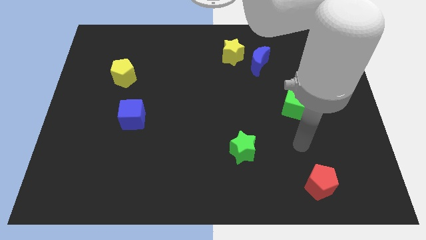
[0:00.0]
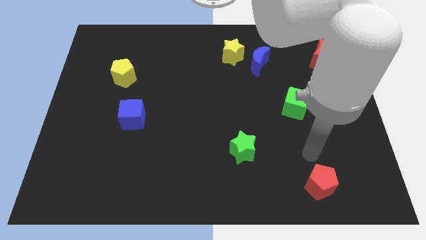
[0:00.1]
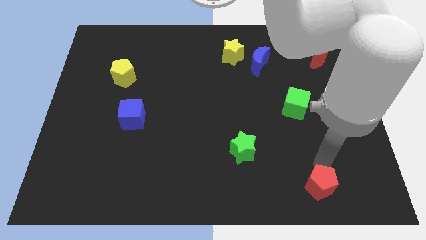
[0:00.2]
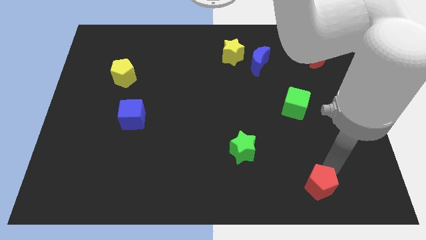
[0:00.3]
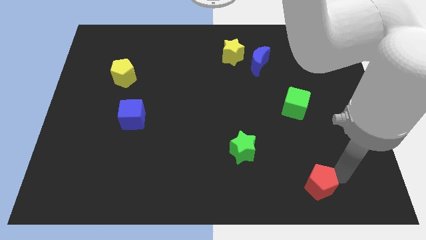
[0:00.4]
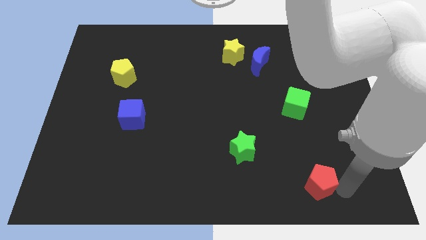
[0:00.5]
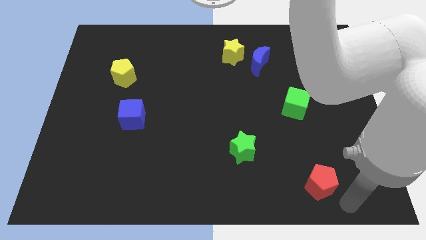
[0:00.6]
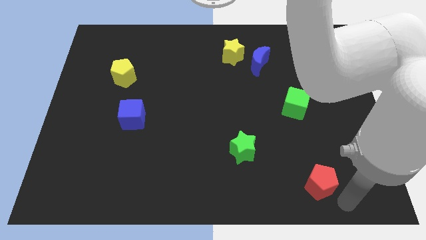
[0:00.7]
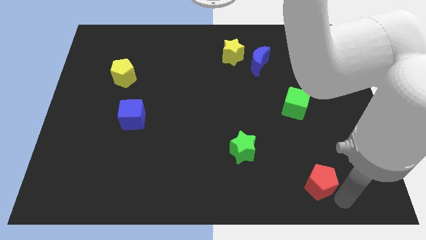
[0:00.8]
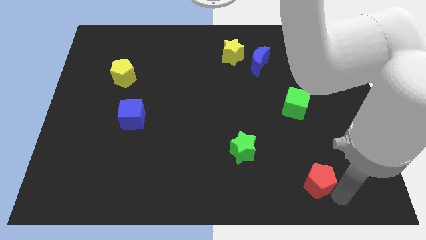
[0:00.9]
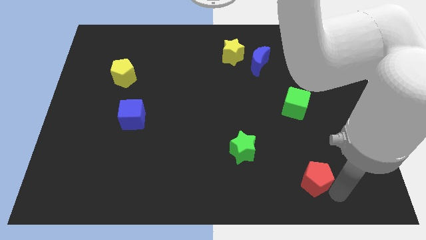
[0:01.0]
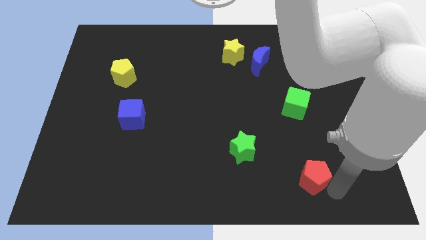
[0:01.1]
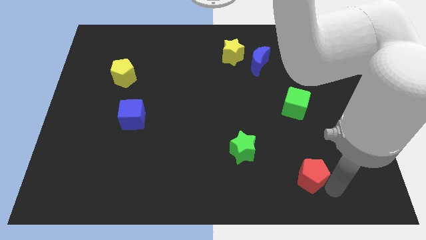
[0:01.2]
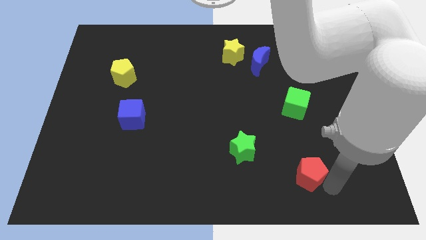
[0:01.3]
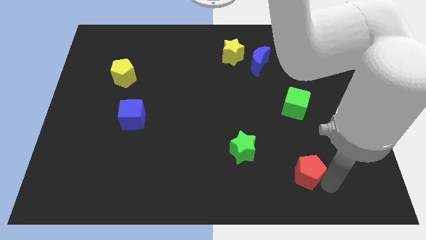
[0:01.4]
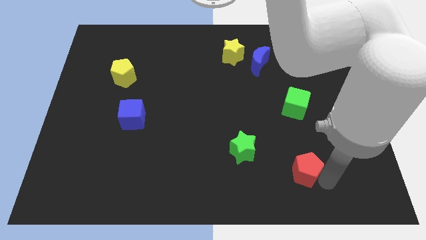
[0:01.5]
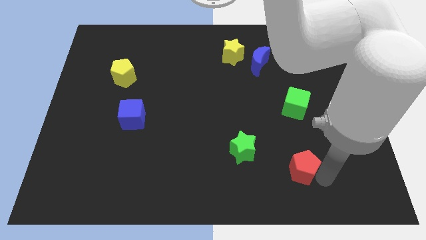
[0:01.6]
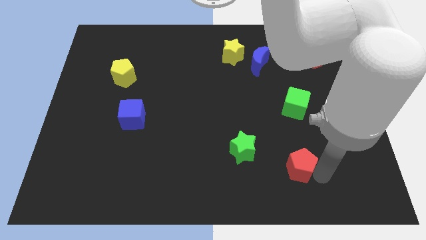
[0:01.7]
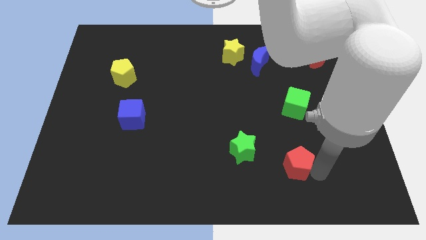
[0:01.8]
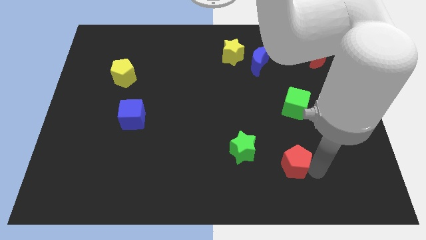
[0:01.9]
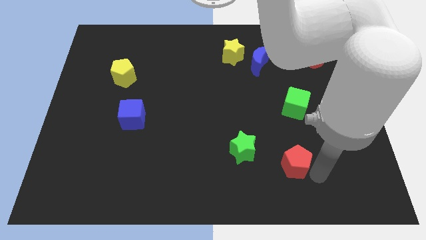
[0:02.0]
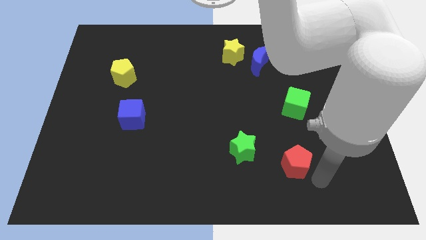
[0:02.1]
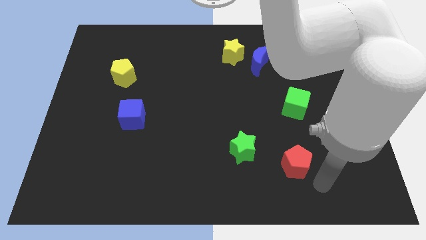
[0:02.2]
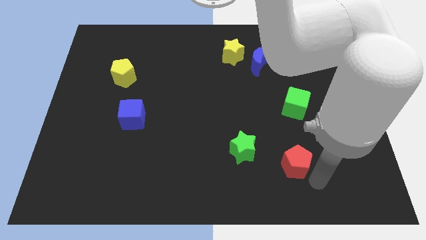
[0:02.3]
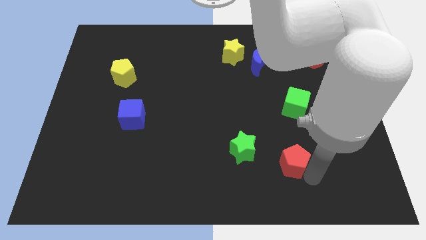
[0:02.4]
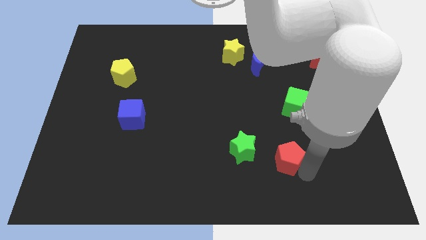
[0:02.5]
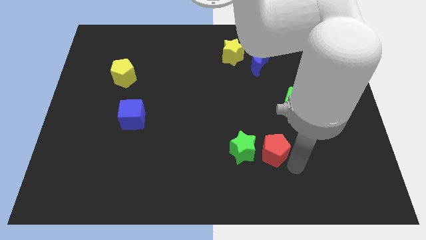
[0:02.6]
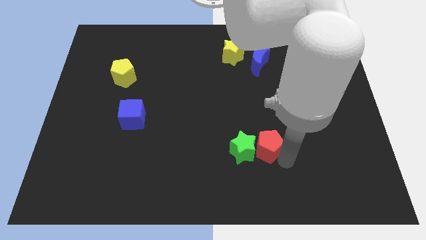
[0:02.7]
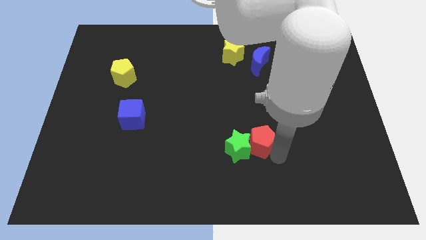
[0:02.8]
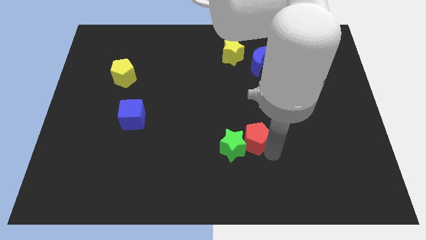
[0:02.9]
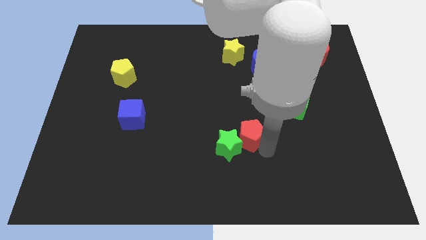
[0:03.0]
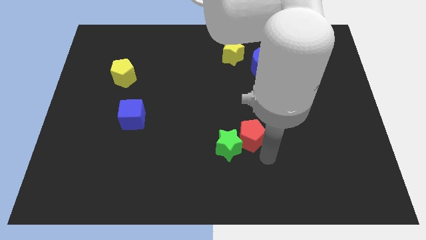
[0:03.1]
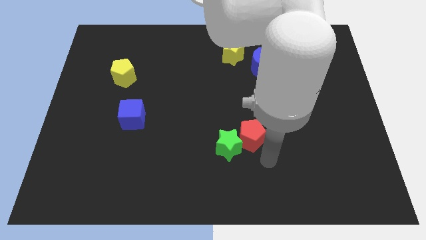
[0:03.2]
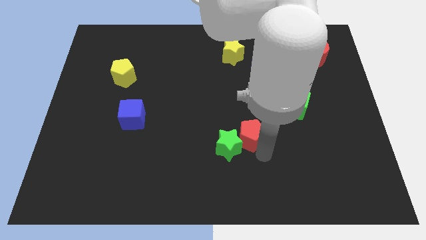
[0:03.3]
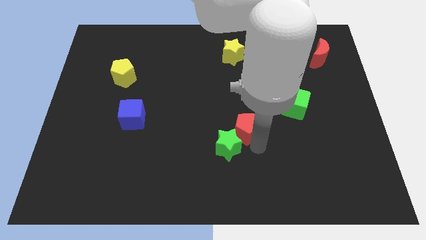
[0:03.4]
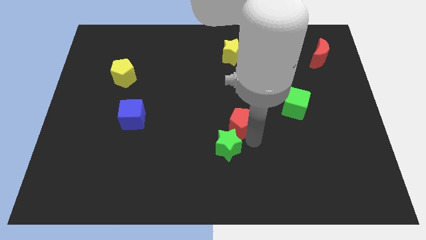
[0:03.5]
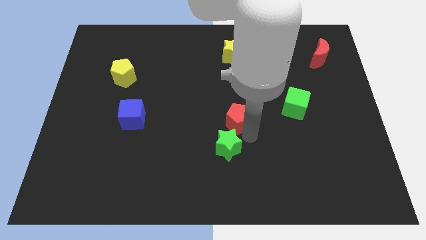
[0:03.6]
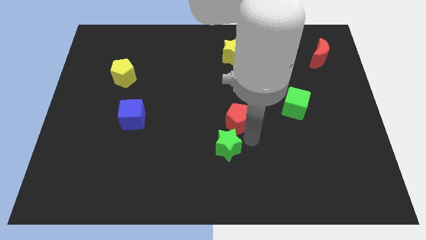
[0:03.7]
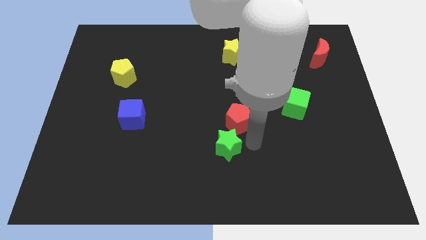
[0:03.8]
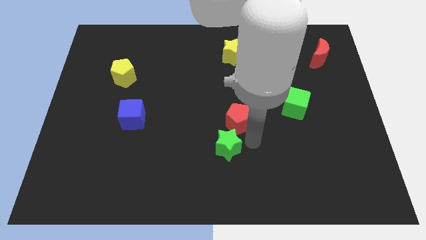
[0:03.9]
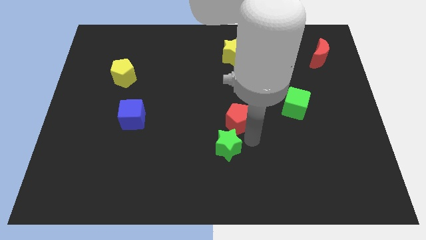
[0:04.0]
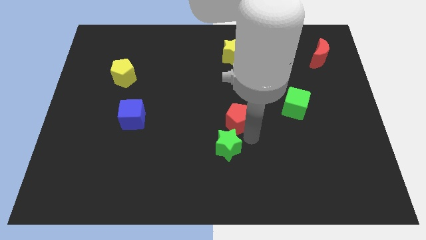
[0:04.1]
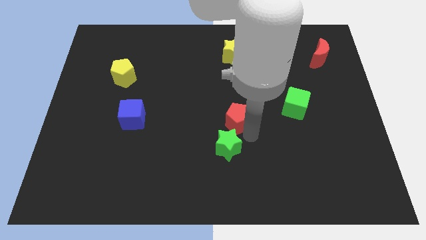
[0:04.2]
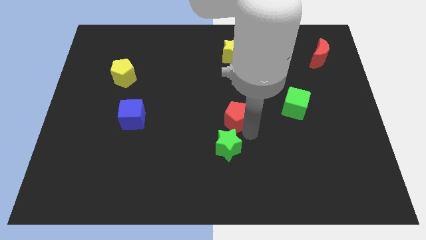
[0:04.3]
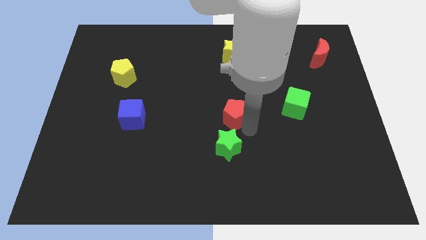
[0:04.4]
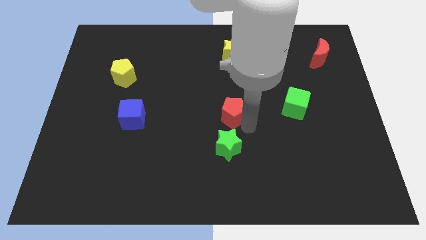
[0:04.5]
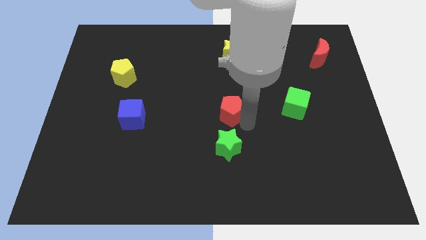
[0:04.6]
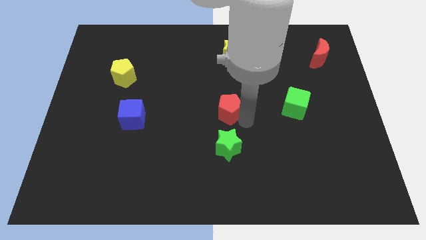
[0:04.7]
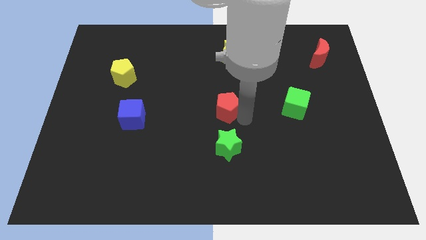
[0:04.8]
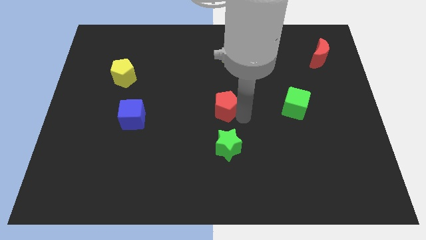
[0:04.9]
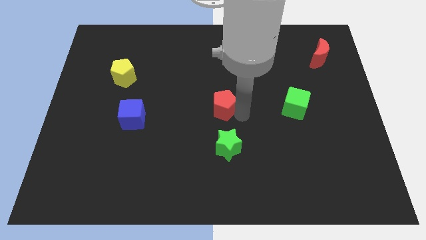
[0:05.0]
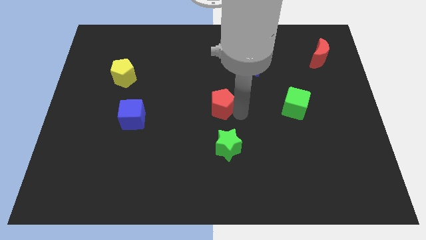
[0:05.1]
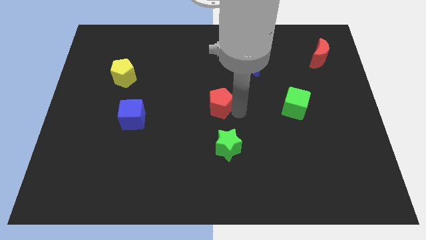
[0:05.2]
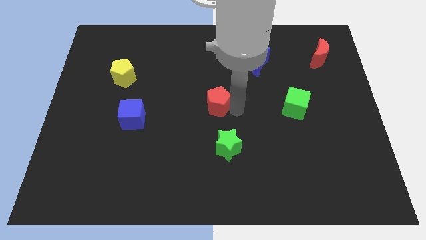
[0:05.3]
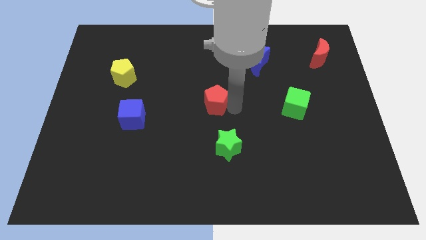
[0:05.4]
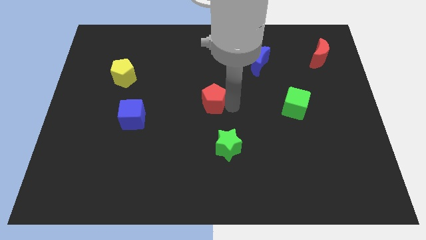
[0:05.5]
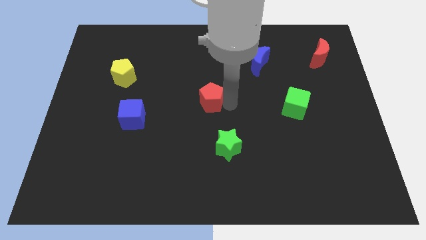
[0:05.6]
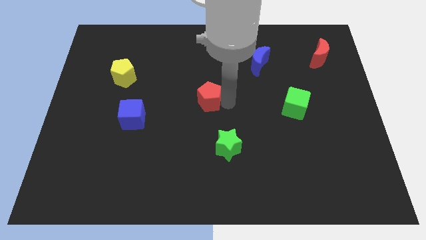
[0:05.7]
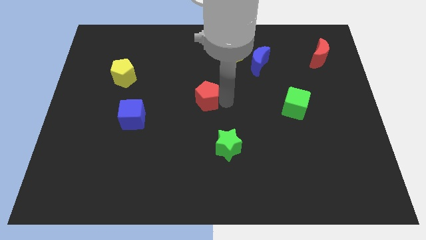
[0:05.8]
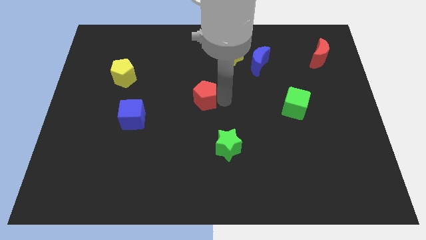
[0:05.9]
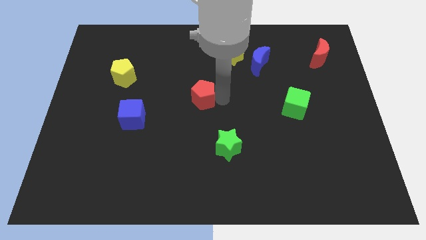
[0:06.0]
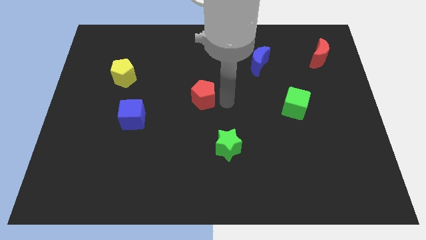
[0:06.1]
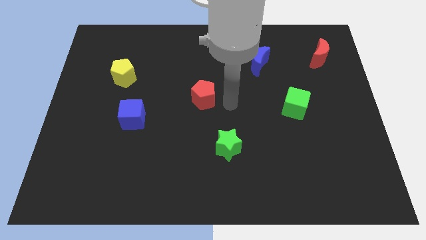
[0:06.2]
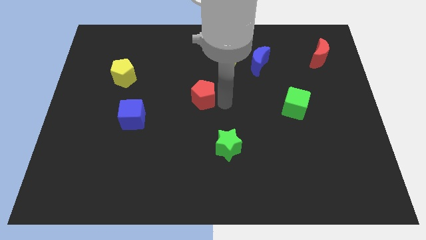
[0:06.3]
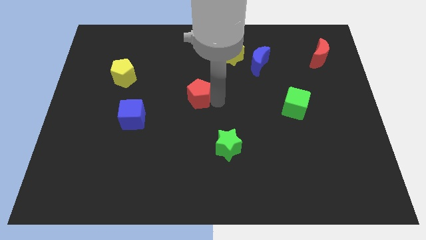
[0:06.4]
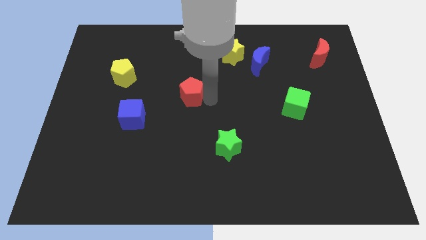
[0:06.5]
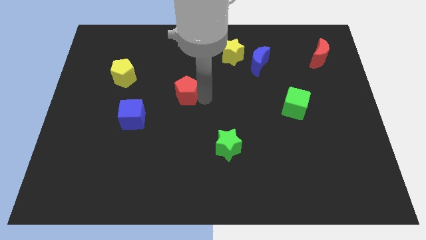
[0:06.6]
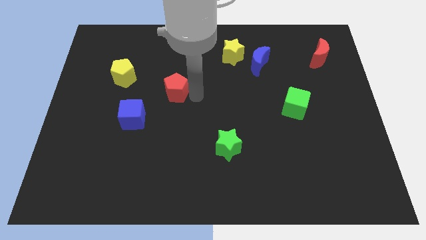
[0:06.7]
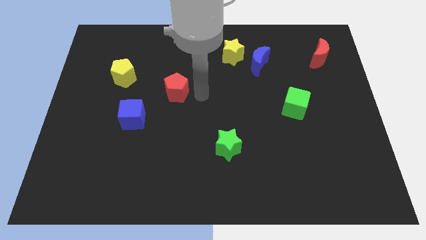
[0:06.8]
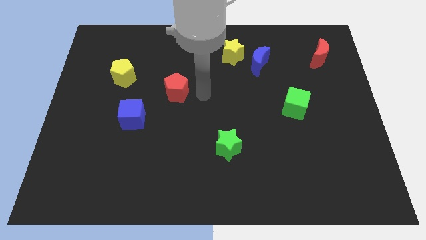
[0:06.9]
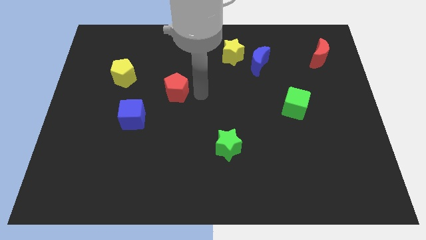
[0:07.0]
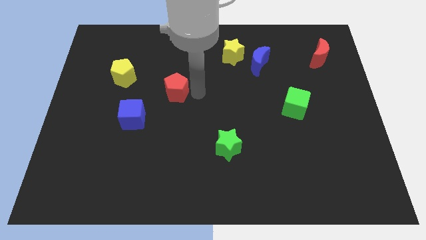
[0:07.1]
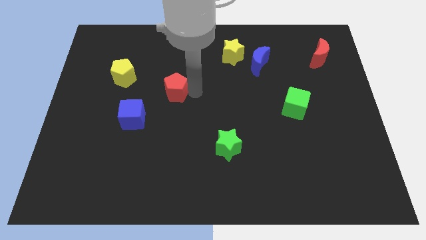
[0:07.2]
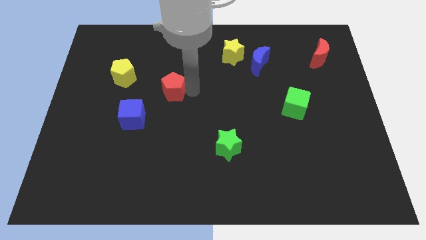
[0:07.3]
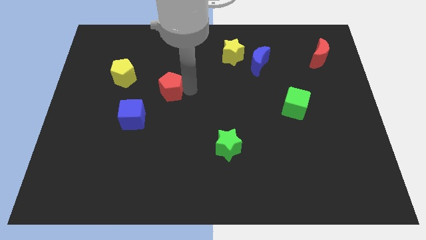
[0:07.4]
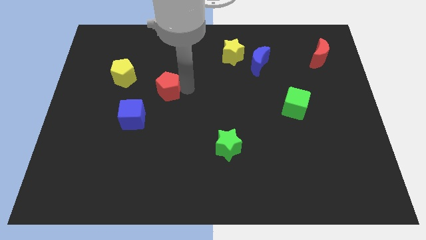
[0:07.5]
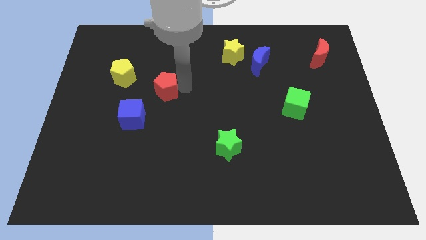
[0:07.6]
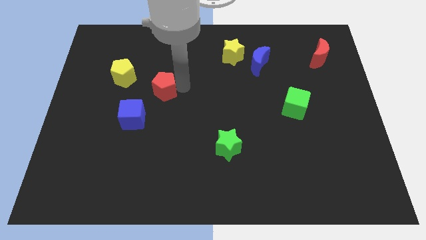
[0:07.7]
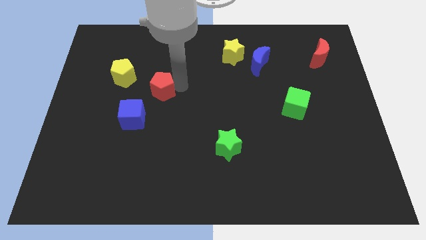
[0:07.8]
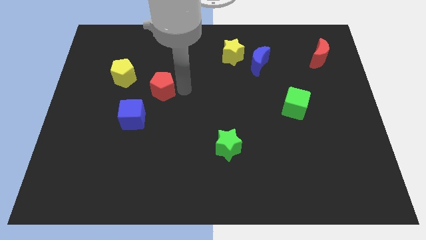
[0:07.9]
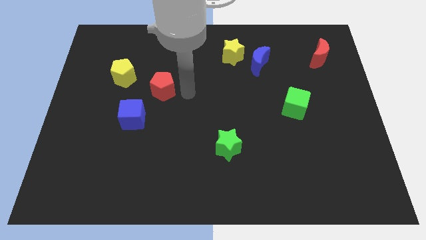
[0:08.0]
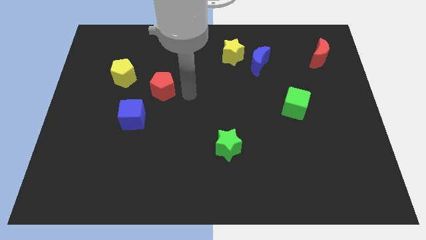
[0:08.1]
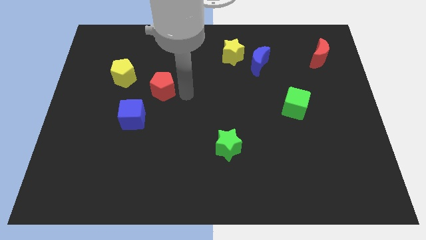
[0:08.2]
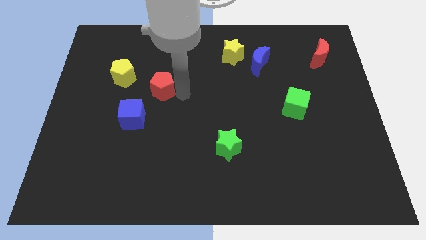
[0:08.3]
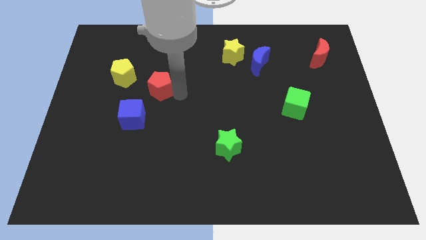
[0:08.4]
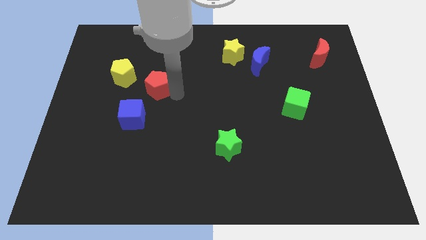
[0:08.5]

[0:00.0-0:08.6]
move the red pentagon to the top side of the blue cube
